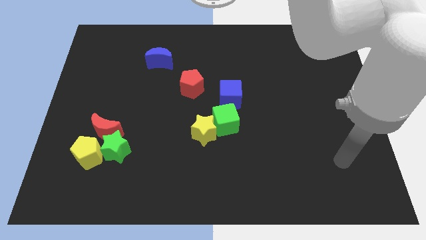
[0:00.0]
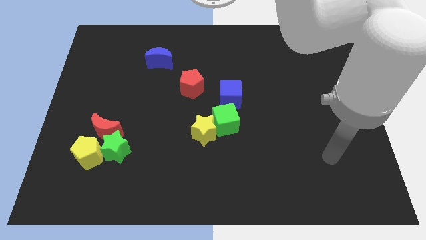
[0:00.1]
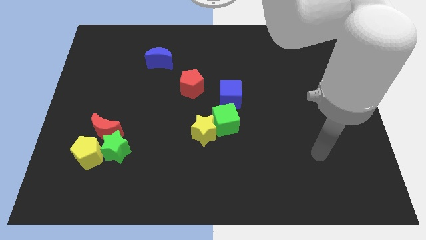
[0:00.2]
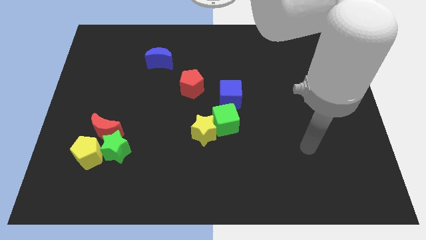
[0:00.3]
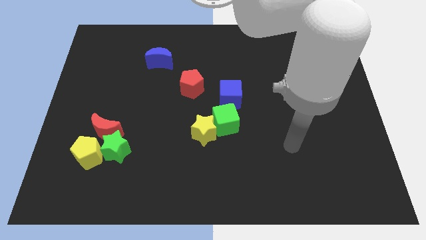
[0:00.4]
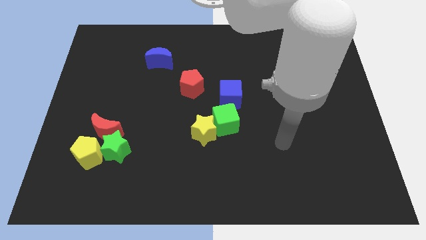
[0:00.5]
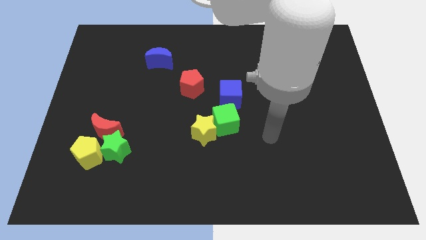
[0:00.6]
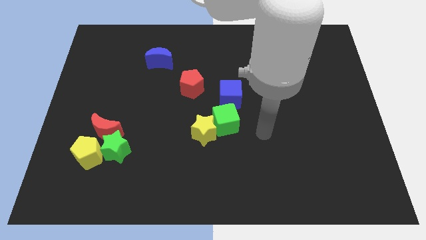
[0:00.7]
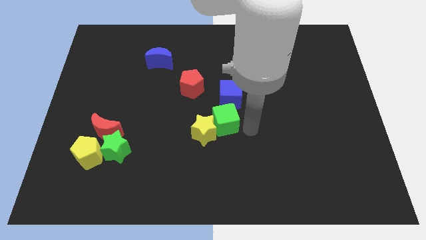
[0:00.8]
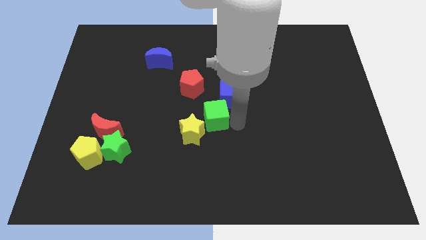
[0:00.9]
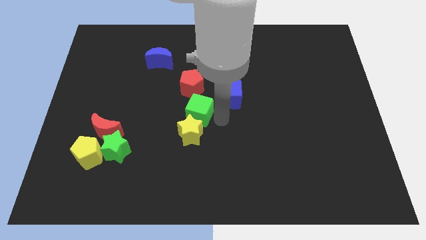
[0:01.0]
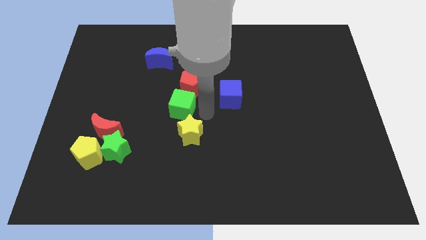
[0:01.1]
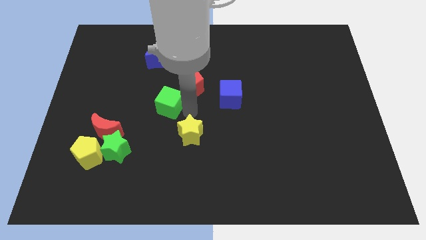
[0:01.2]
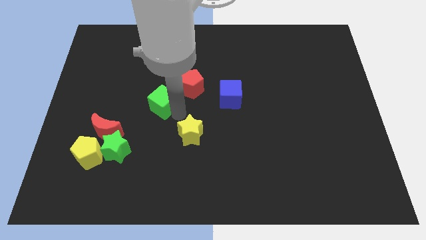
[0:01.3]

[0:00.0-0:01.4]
pull the yellow star apart from the green cube

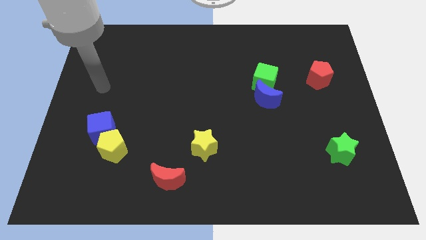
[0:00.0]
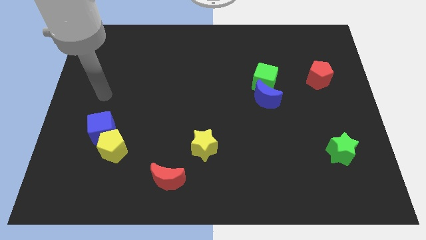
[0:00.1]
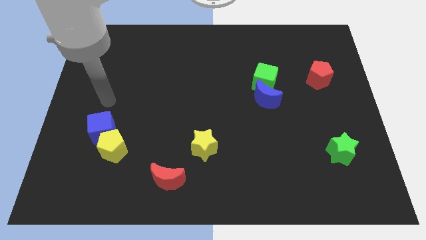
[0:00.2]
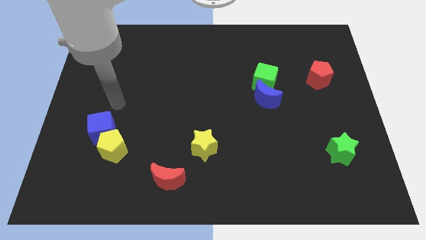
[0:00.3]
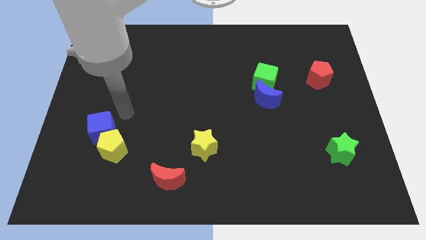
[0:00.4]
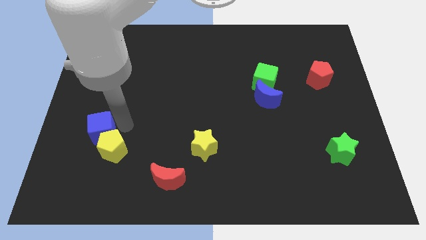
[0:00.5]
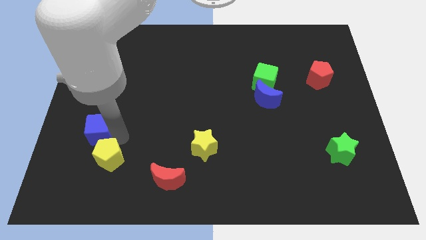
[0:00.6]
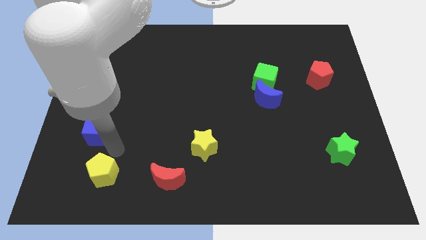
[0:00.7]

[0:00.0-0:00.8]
pull the blue cube apart from the yellow pentagon

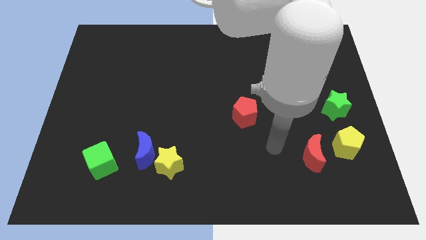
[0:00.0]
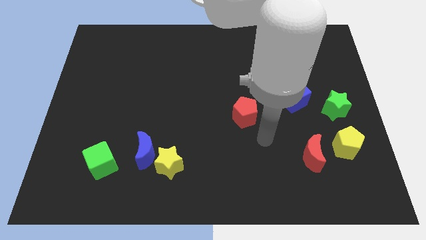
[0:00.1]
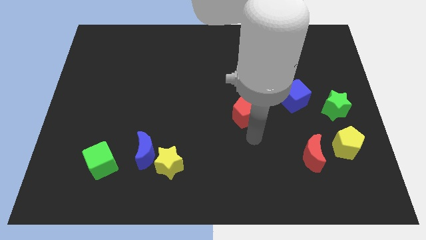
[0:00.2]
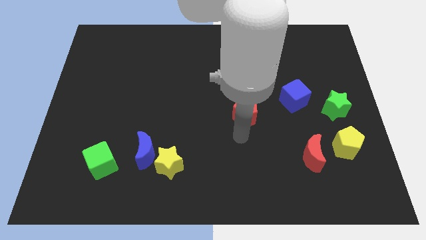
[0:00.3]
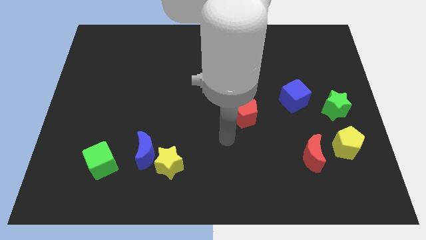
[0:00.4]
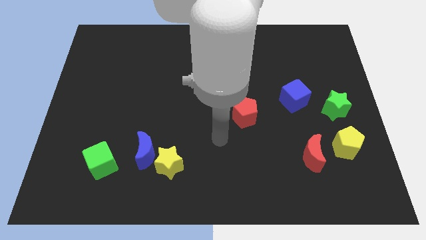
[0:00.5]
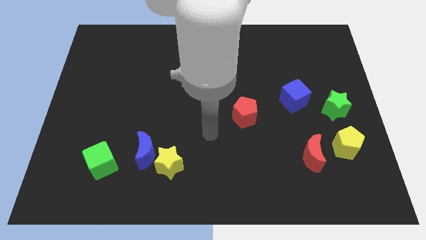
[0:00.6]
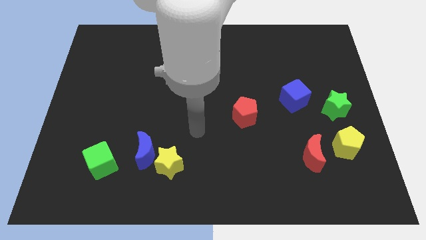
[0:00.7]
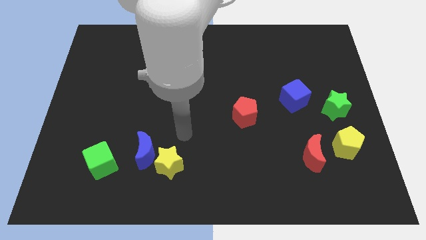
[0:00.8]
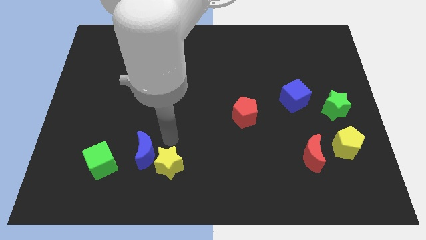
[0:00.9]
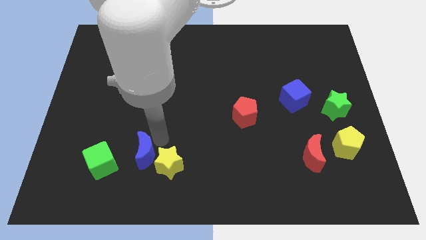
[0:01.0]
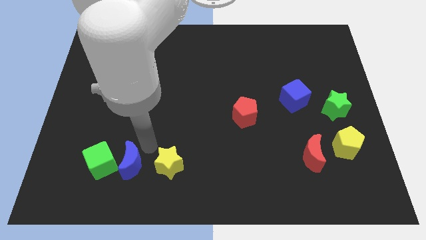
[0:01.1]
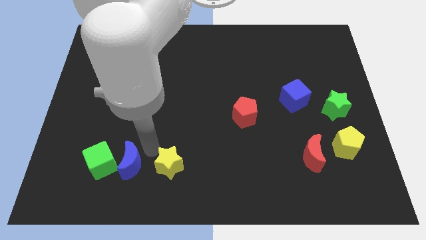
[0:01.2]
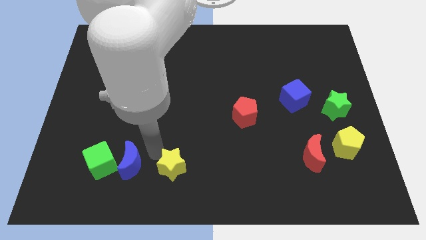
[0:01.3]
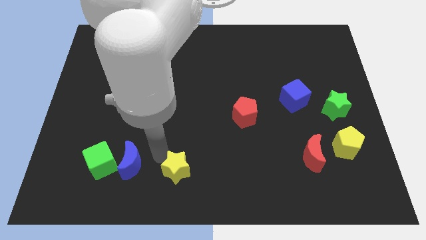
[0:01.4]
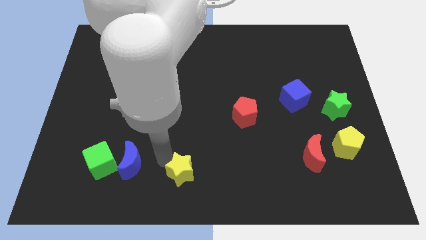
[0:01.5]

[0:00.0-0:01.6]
separate the yellow star from the blue moon

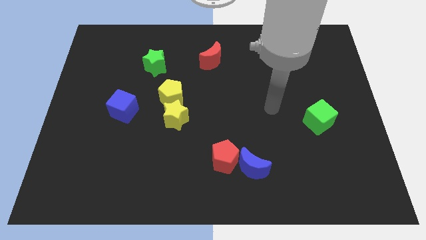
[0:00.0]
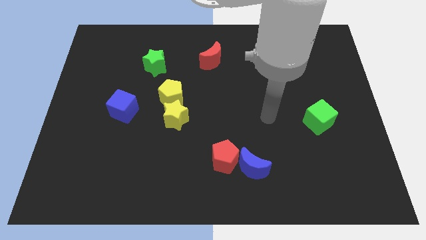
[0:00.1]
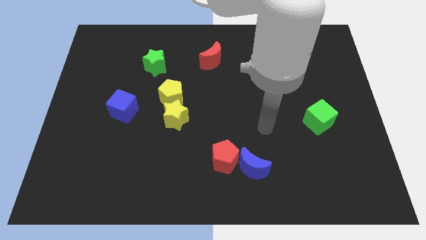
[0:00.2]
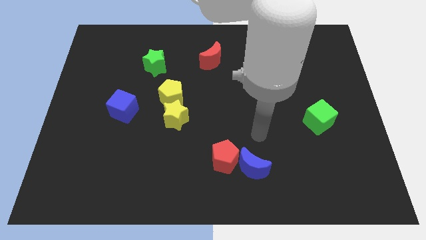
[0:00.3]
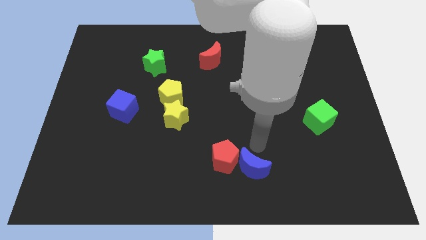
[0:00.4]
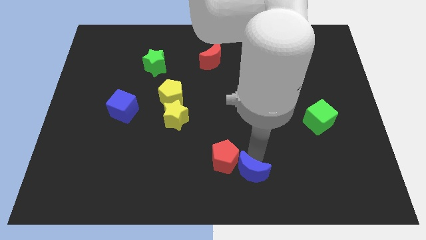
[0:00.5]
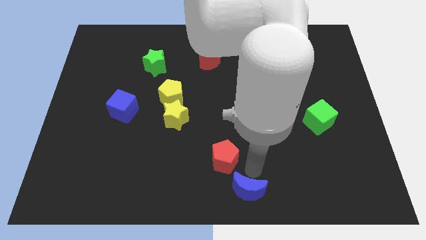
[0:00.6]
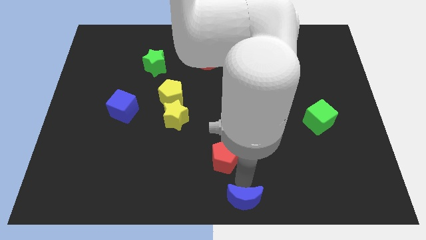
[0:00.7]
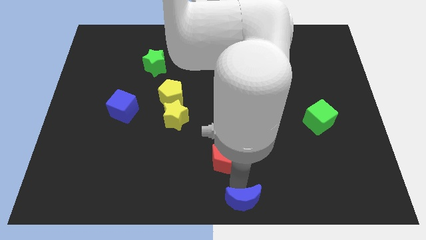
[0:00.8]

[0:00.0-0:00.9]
pull the red pentagon apart from the blue moon

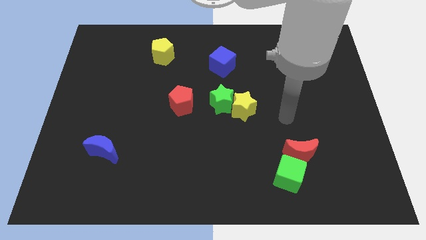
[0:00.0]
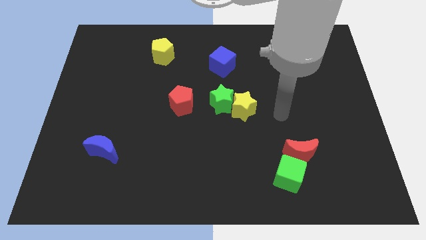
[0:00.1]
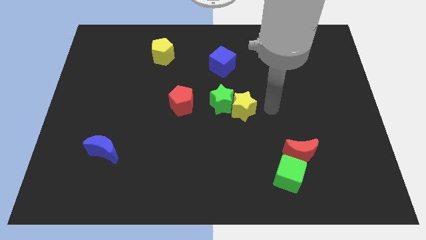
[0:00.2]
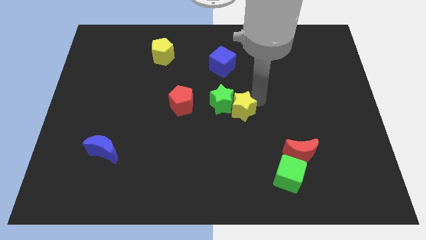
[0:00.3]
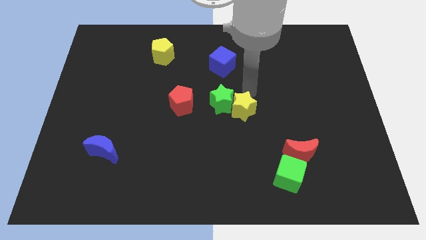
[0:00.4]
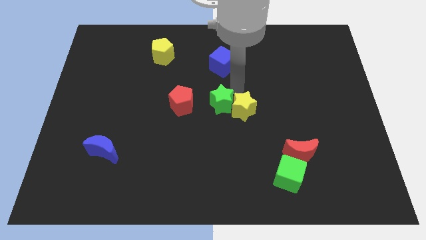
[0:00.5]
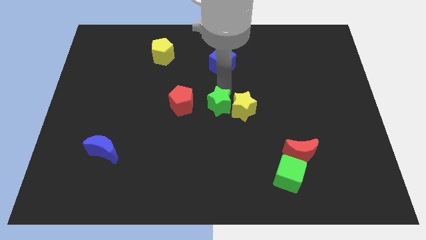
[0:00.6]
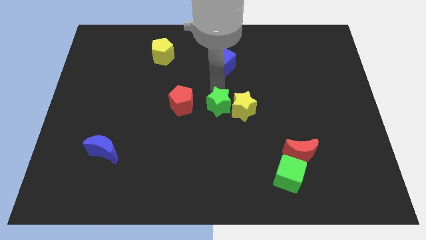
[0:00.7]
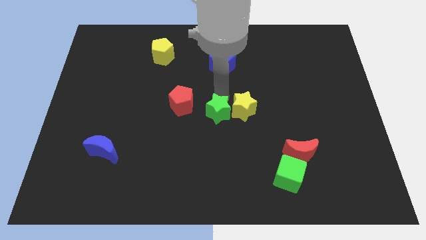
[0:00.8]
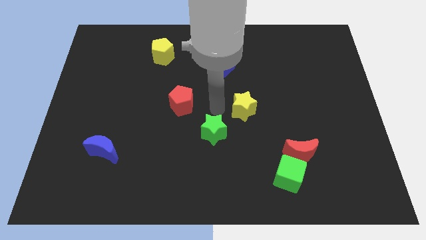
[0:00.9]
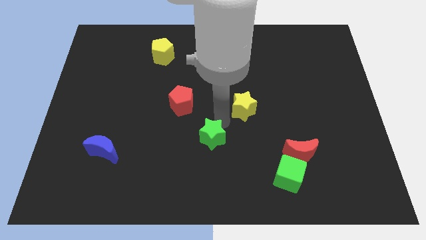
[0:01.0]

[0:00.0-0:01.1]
pull the yellow star apart from the green star

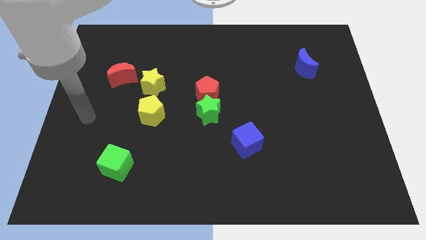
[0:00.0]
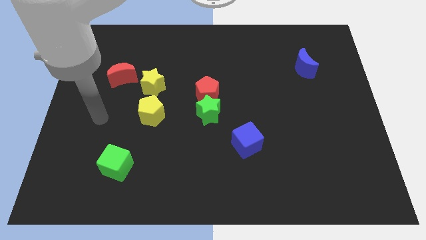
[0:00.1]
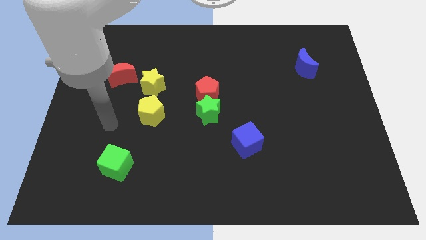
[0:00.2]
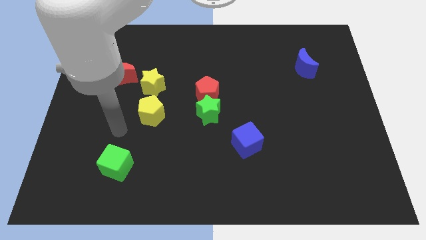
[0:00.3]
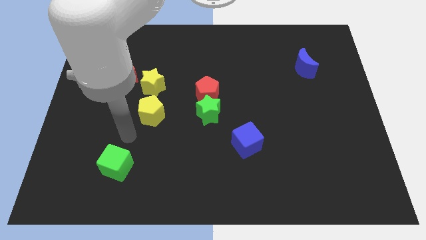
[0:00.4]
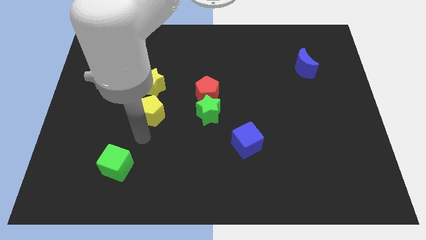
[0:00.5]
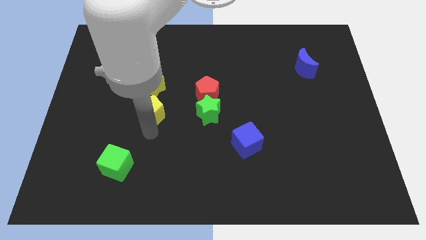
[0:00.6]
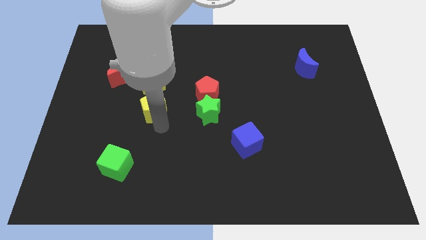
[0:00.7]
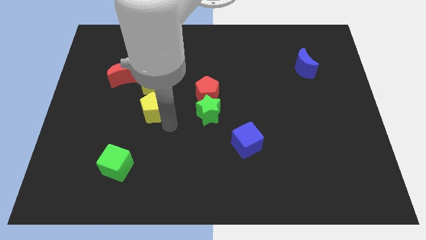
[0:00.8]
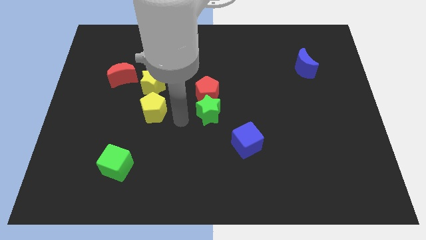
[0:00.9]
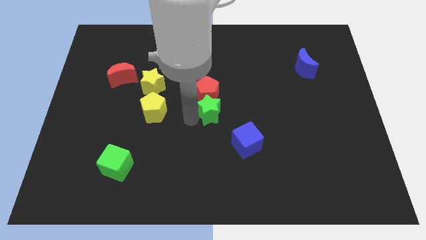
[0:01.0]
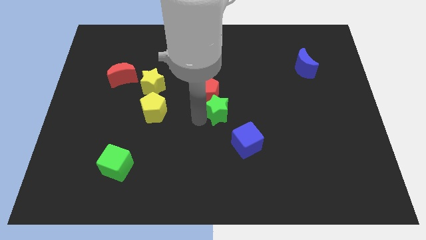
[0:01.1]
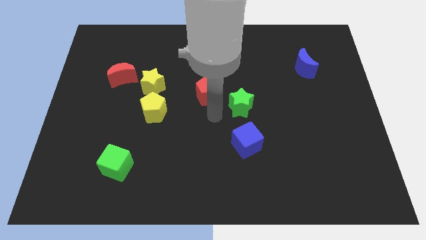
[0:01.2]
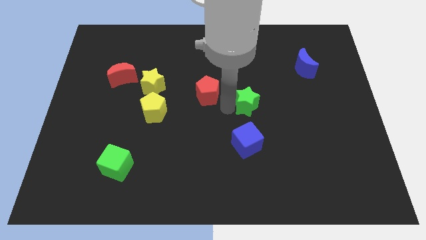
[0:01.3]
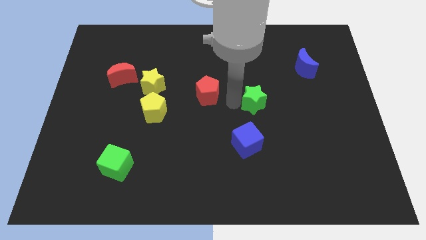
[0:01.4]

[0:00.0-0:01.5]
pull the red pentagon apart from the green star

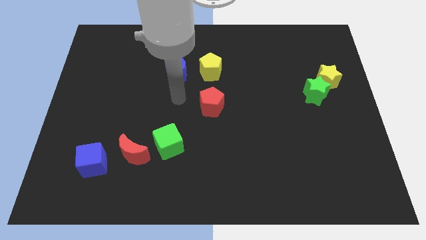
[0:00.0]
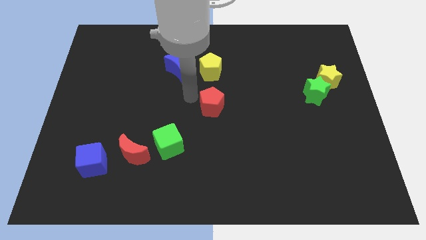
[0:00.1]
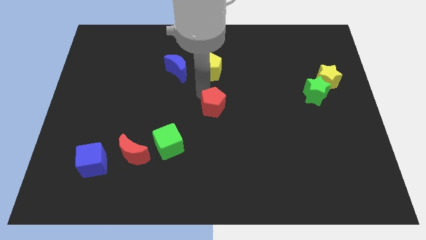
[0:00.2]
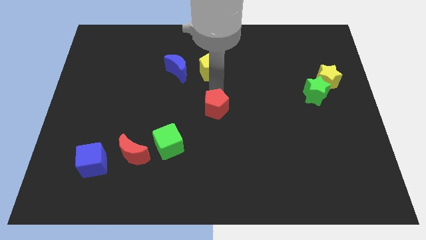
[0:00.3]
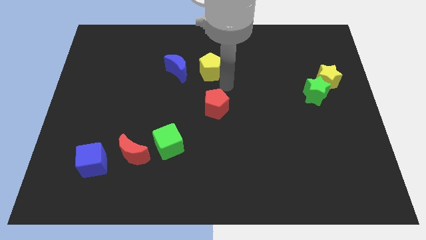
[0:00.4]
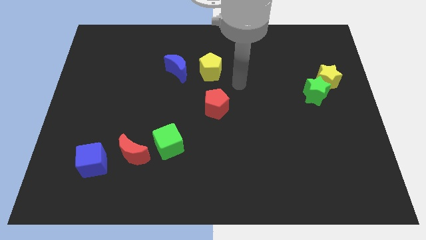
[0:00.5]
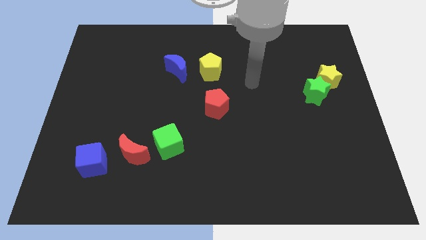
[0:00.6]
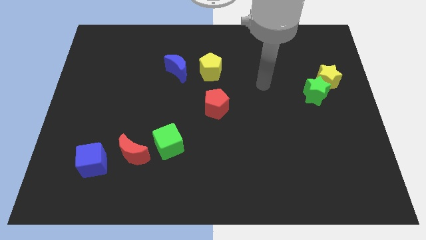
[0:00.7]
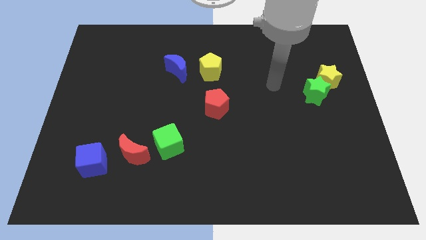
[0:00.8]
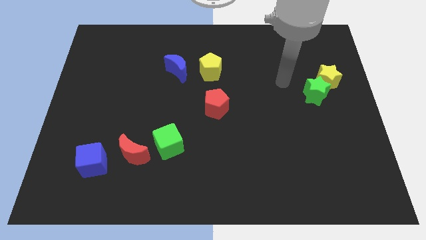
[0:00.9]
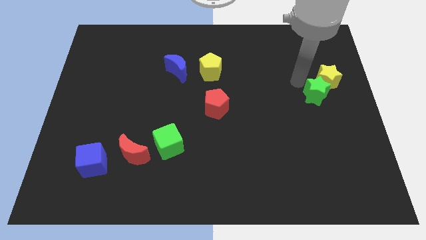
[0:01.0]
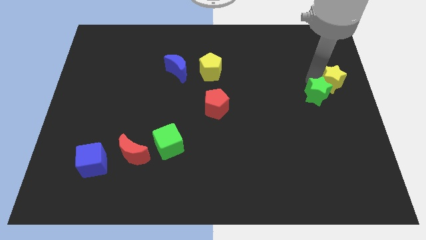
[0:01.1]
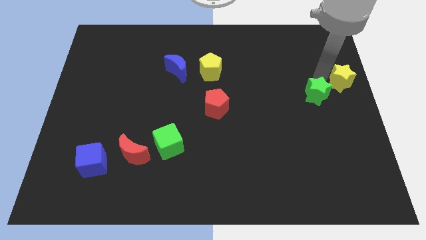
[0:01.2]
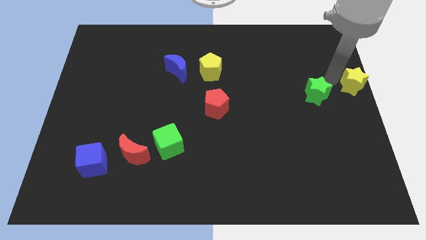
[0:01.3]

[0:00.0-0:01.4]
pull the green star apart from the yellow star

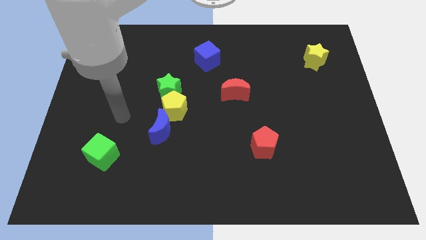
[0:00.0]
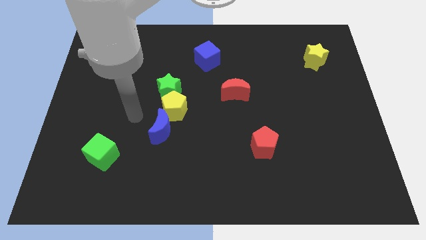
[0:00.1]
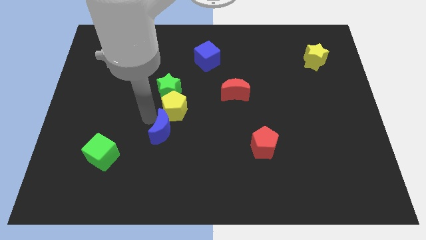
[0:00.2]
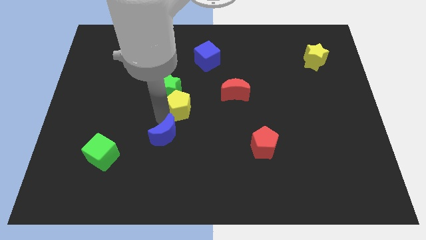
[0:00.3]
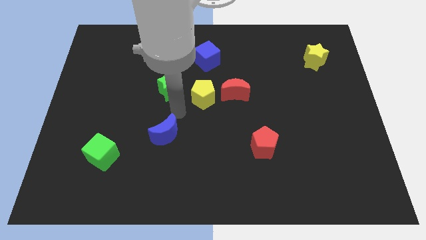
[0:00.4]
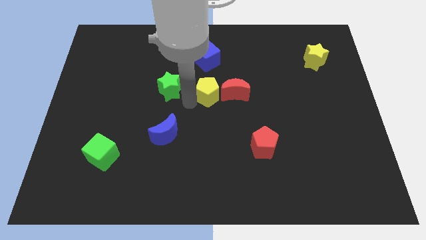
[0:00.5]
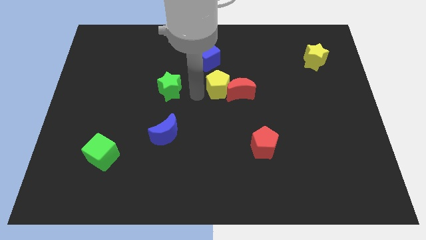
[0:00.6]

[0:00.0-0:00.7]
separate the green star from the yellow pentagon

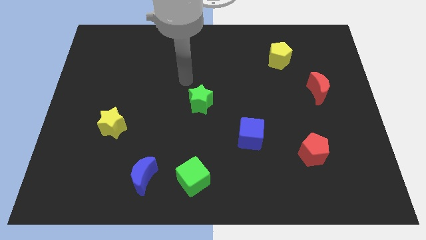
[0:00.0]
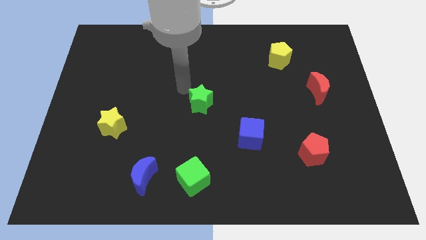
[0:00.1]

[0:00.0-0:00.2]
pull the blue moon apart from the green cube
